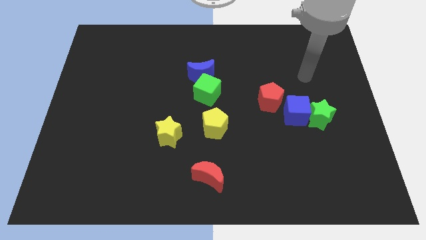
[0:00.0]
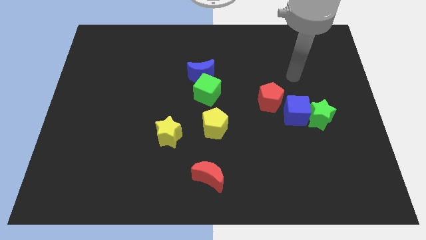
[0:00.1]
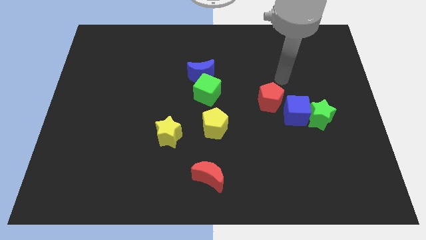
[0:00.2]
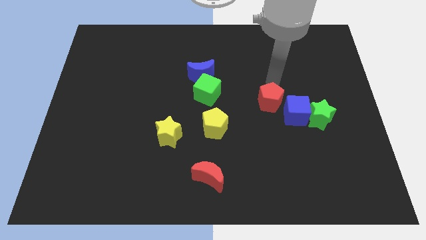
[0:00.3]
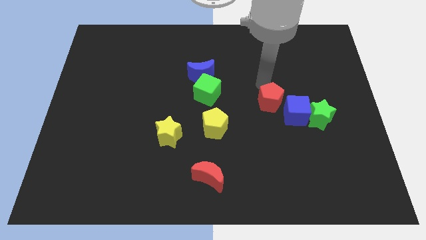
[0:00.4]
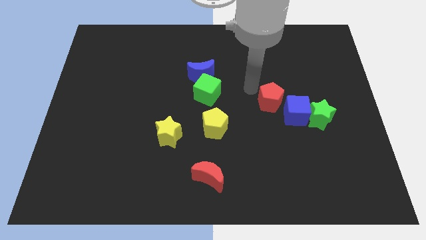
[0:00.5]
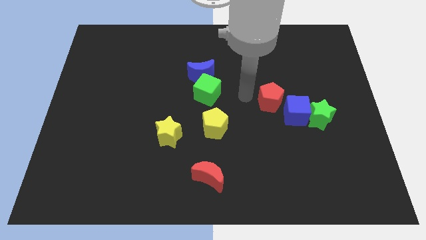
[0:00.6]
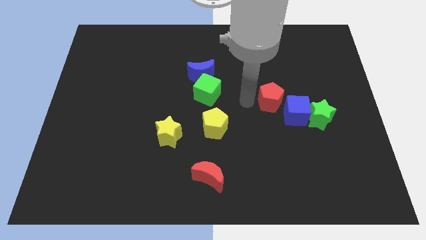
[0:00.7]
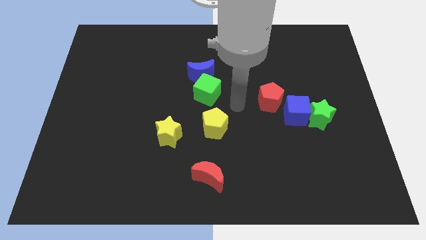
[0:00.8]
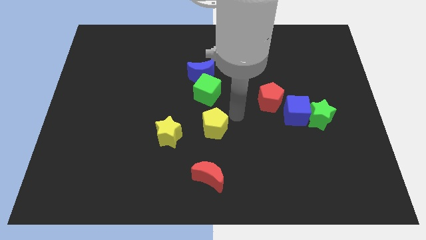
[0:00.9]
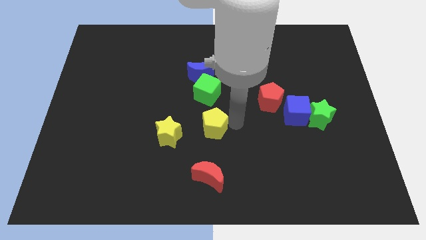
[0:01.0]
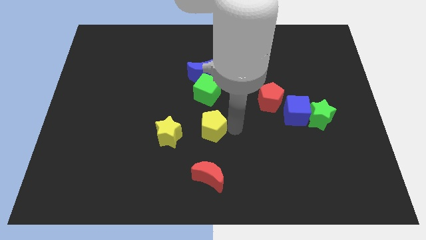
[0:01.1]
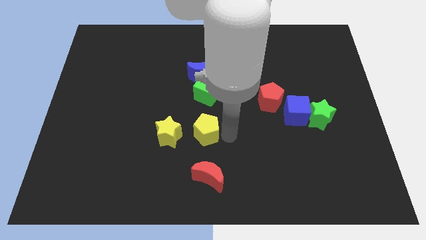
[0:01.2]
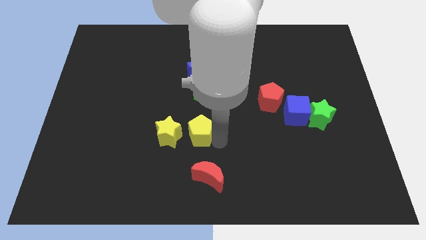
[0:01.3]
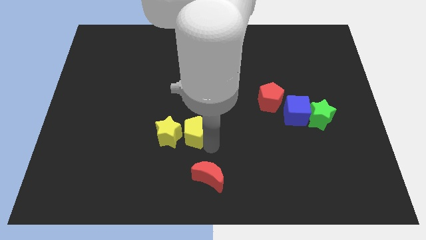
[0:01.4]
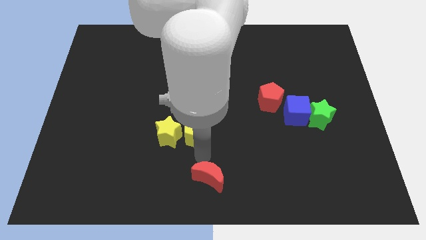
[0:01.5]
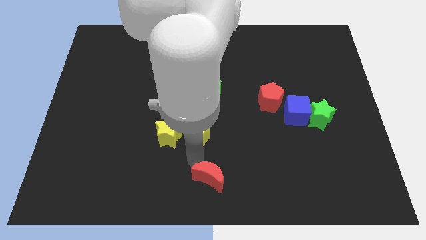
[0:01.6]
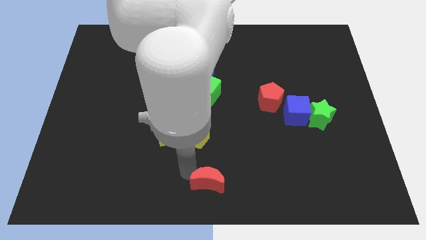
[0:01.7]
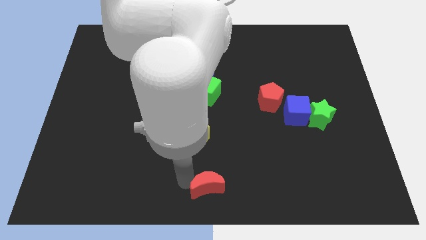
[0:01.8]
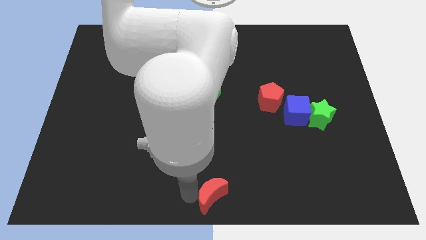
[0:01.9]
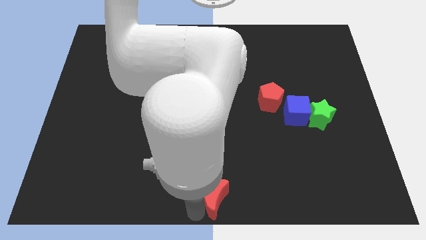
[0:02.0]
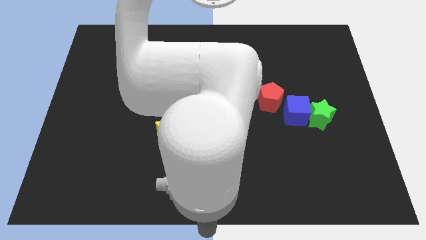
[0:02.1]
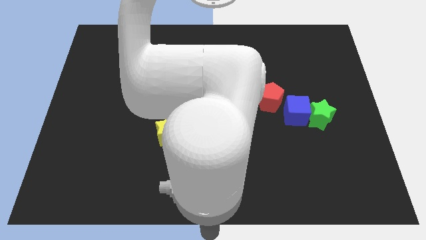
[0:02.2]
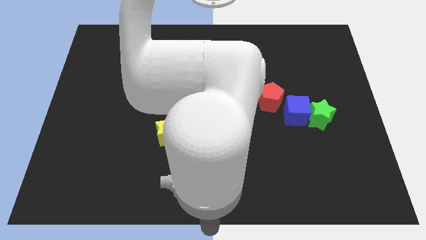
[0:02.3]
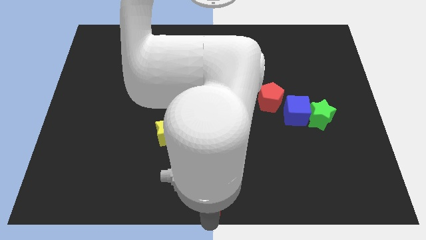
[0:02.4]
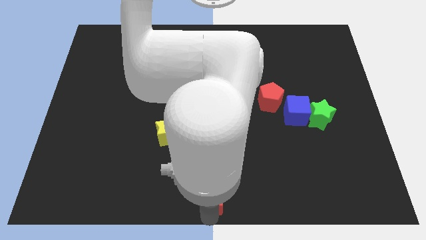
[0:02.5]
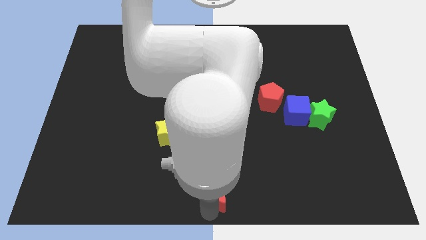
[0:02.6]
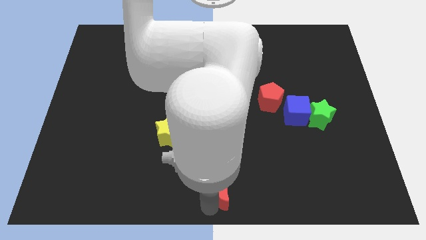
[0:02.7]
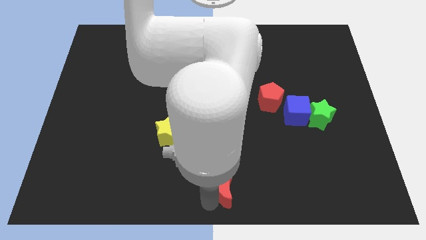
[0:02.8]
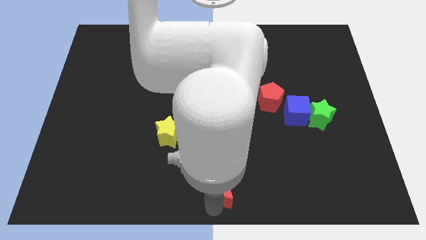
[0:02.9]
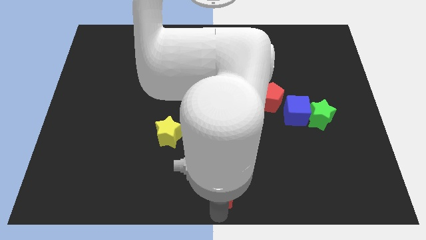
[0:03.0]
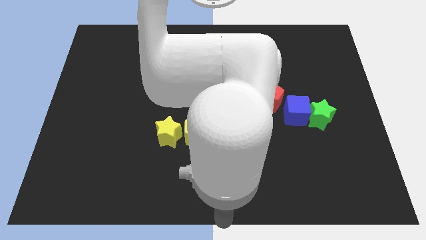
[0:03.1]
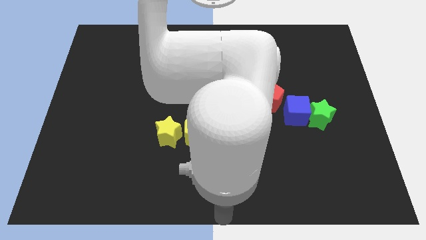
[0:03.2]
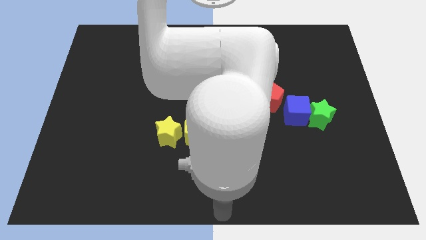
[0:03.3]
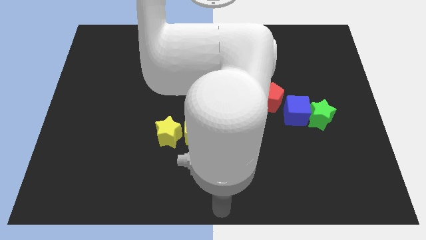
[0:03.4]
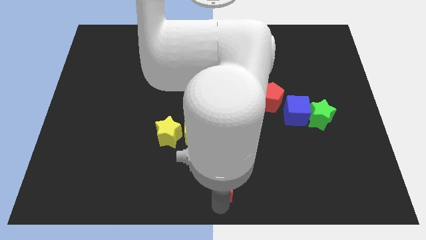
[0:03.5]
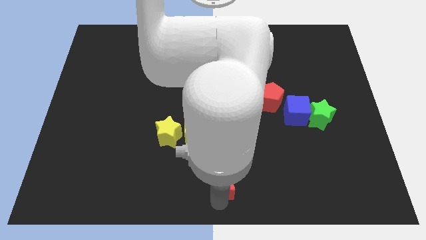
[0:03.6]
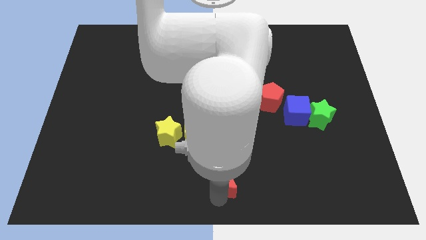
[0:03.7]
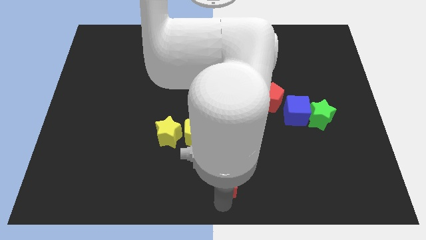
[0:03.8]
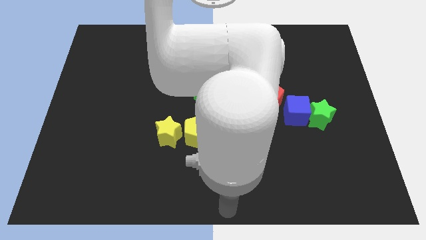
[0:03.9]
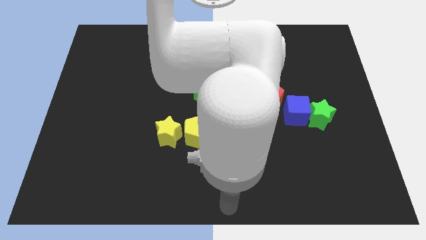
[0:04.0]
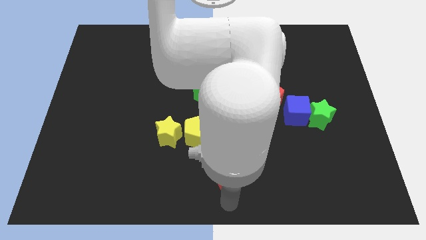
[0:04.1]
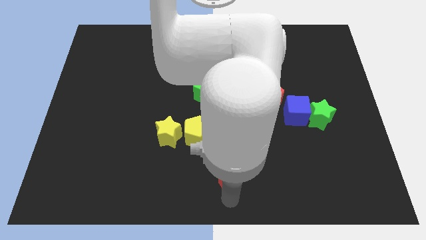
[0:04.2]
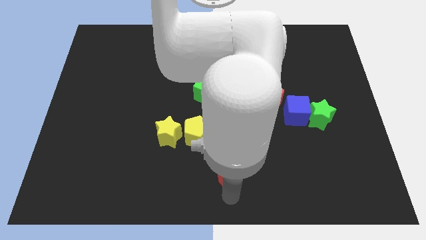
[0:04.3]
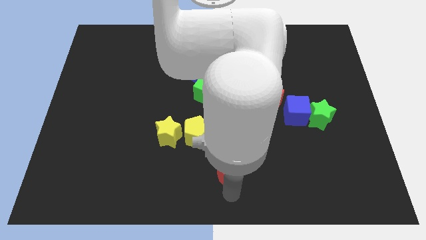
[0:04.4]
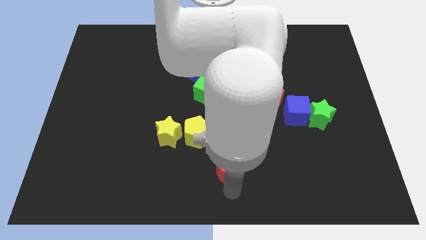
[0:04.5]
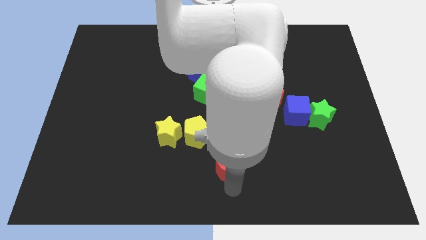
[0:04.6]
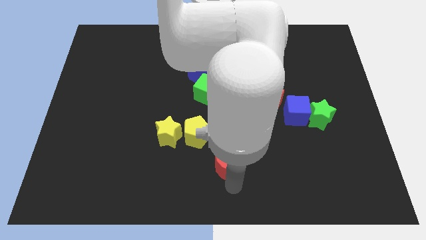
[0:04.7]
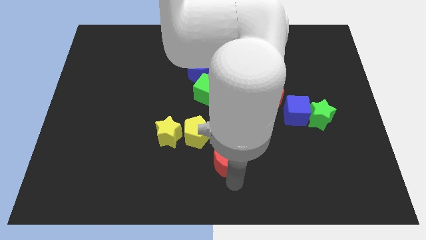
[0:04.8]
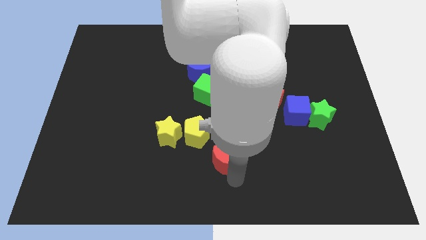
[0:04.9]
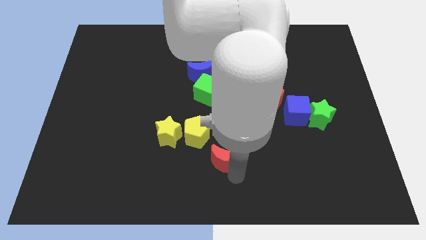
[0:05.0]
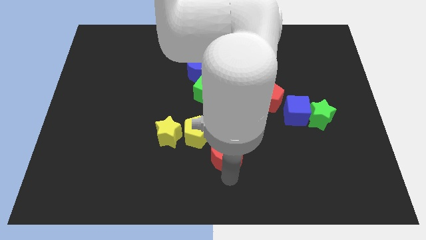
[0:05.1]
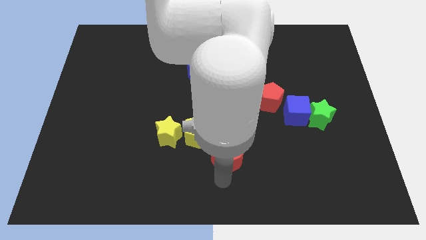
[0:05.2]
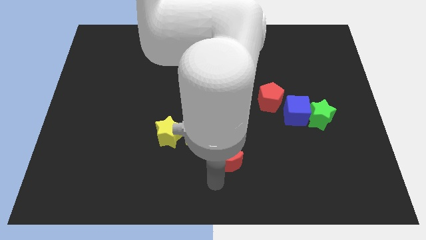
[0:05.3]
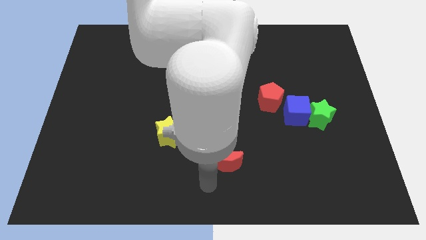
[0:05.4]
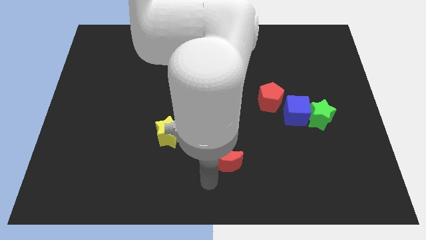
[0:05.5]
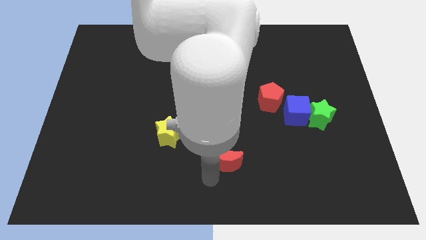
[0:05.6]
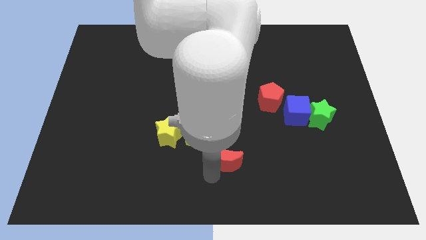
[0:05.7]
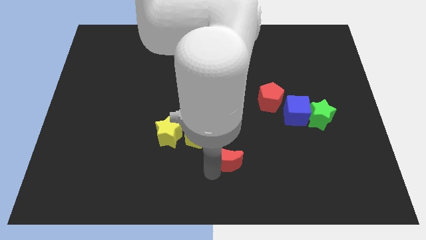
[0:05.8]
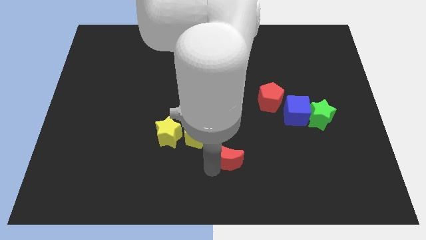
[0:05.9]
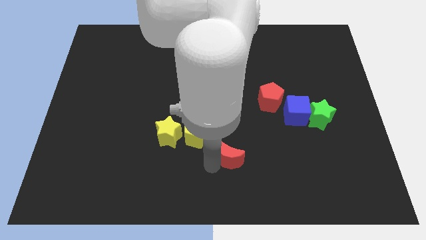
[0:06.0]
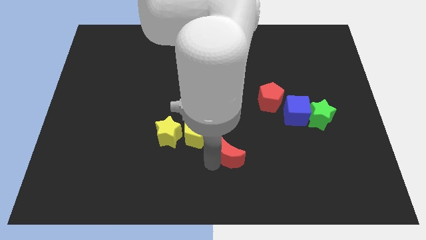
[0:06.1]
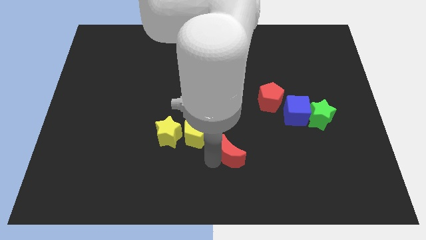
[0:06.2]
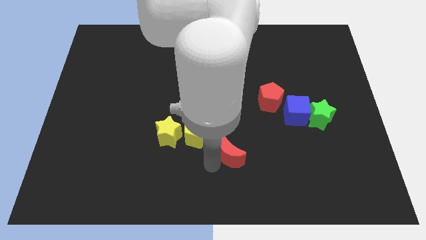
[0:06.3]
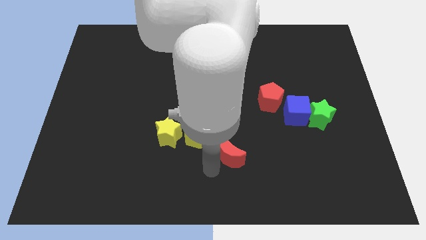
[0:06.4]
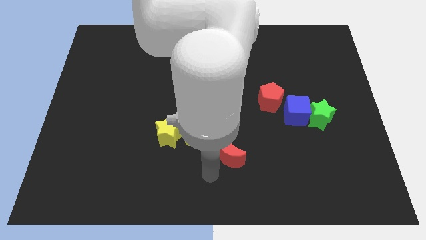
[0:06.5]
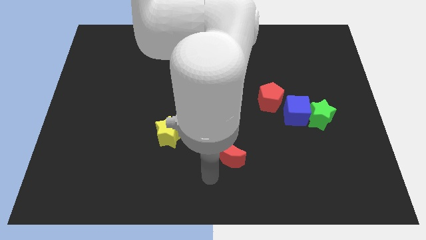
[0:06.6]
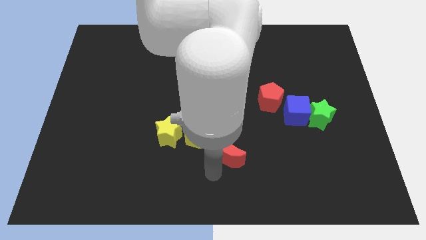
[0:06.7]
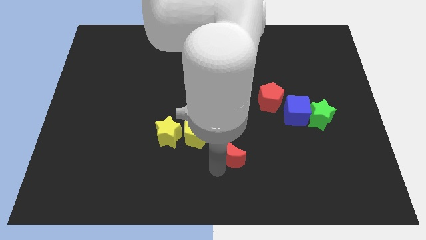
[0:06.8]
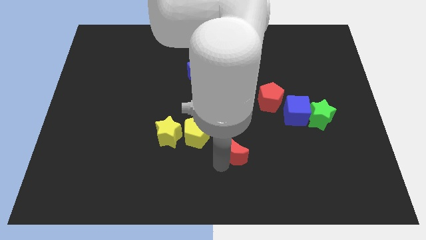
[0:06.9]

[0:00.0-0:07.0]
push the red moon just right of the yellow pentagon
